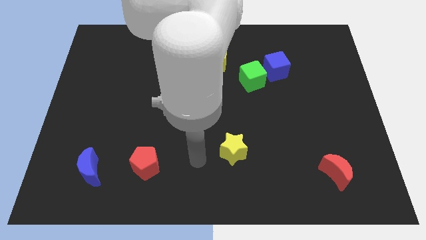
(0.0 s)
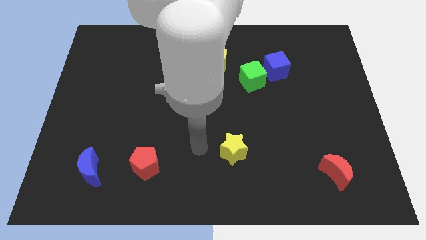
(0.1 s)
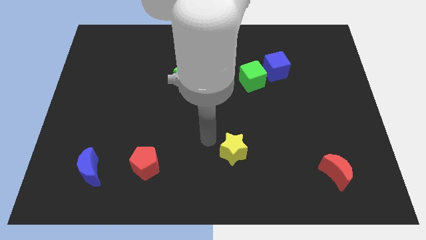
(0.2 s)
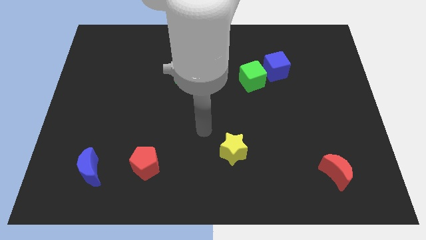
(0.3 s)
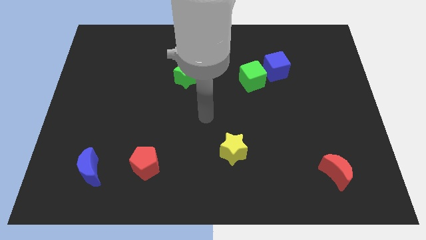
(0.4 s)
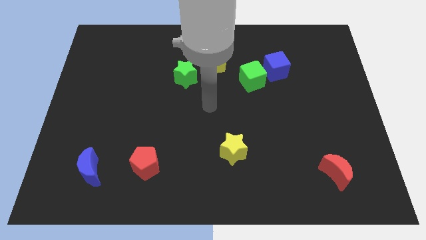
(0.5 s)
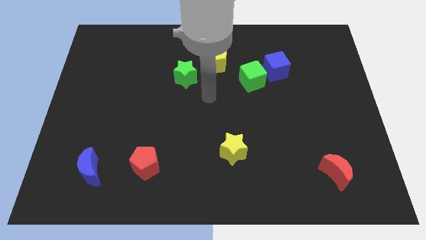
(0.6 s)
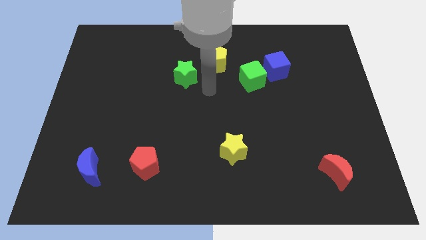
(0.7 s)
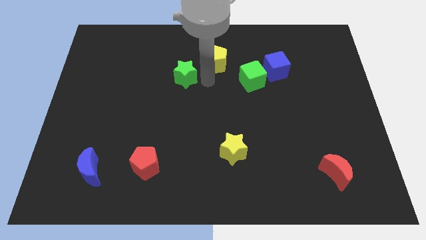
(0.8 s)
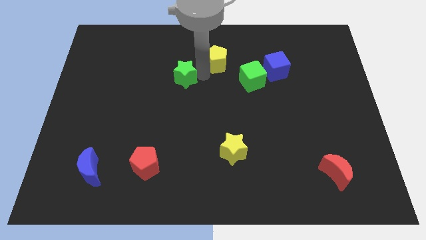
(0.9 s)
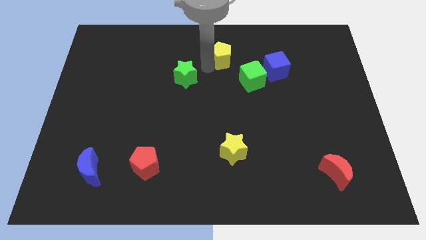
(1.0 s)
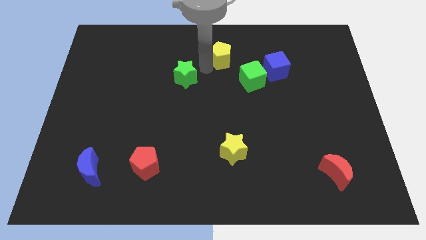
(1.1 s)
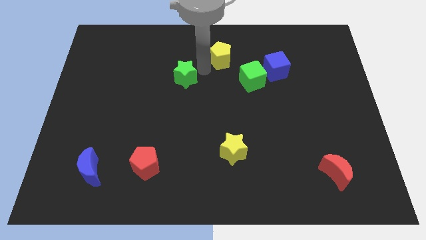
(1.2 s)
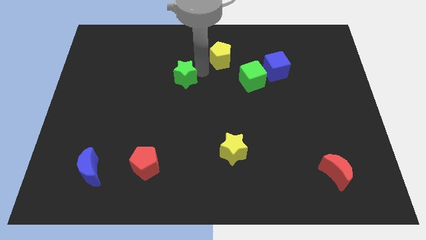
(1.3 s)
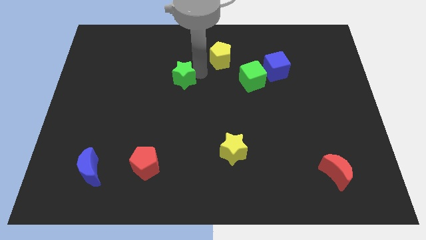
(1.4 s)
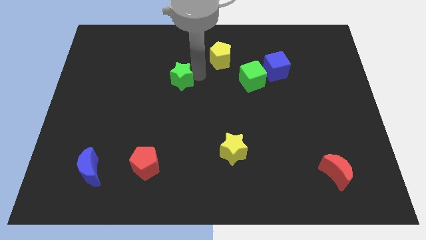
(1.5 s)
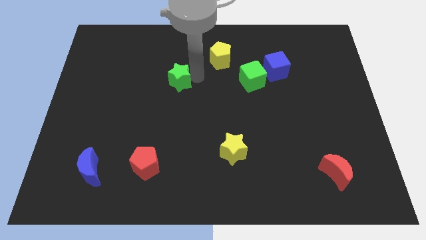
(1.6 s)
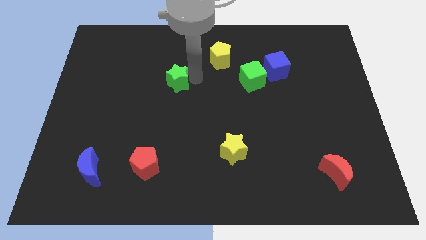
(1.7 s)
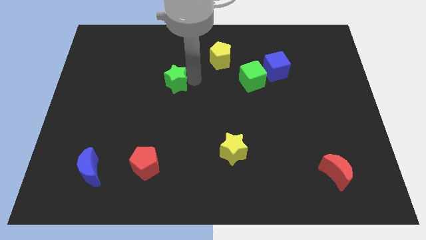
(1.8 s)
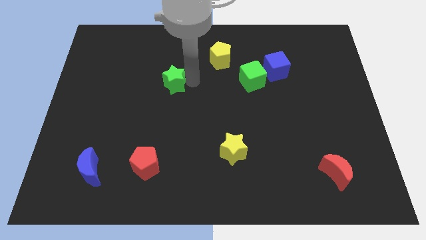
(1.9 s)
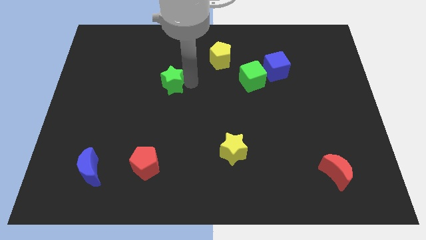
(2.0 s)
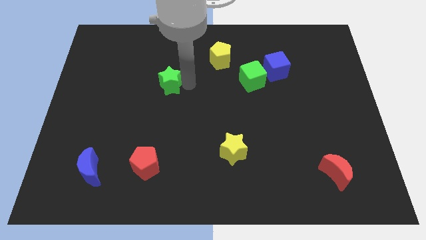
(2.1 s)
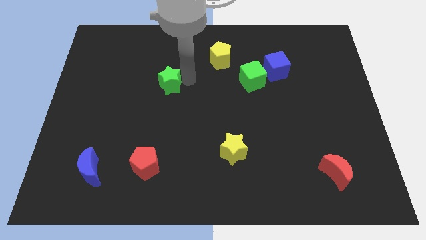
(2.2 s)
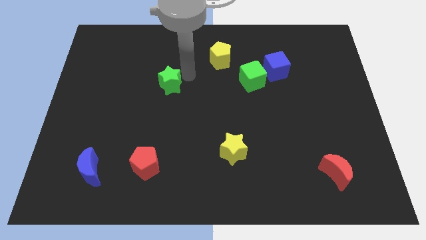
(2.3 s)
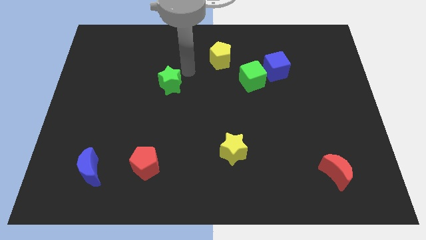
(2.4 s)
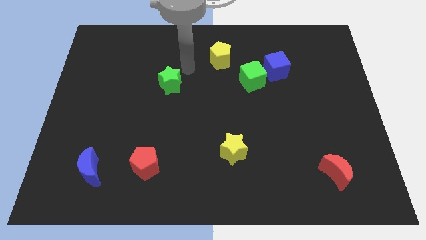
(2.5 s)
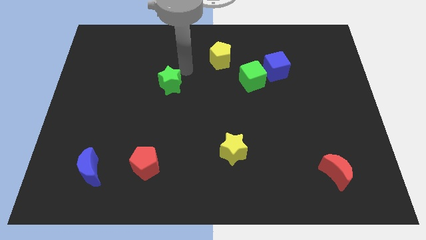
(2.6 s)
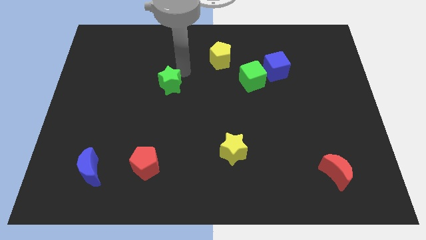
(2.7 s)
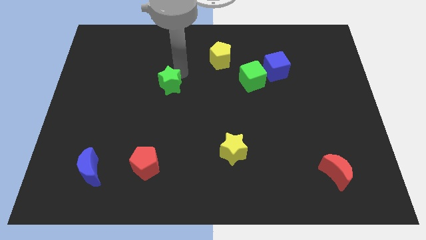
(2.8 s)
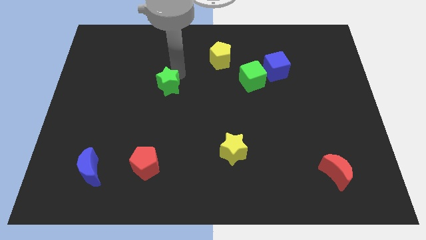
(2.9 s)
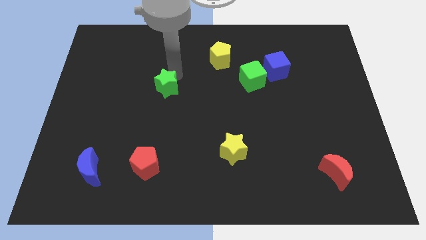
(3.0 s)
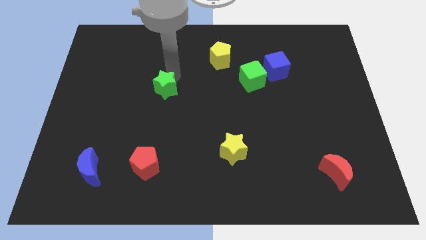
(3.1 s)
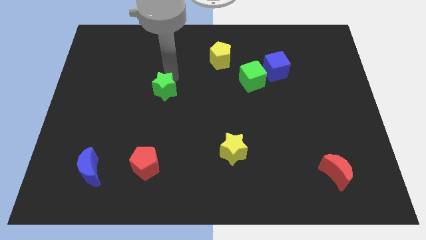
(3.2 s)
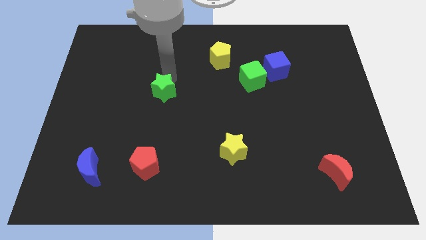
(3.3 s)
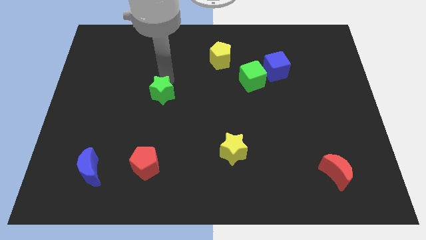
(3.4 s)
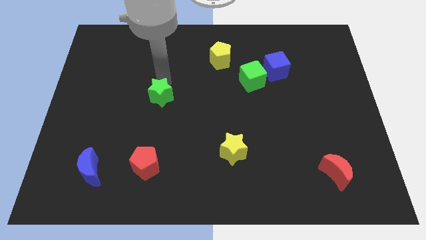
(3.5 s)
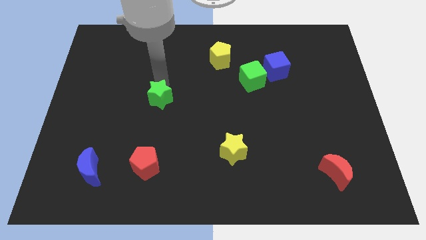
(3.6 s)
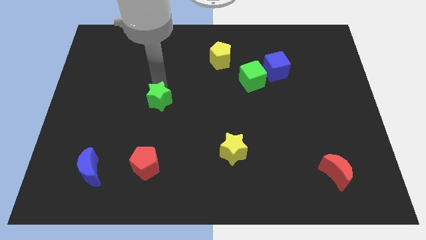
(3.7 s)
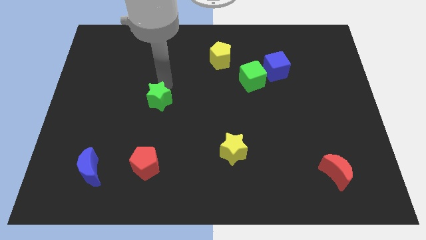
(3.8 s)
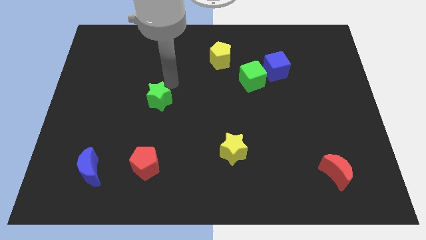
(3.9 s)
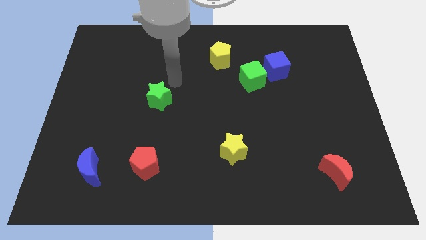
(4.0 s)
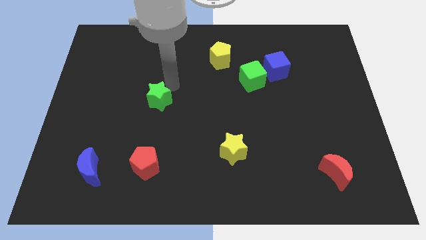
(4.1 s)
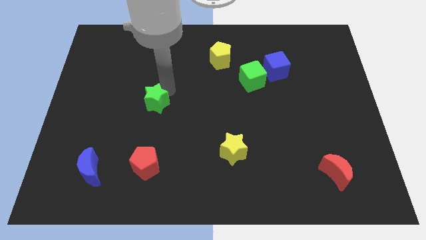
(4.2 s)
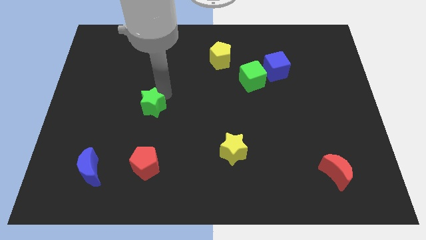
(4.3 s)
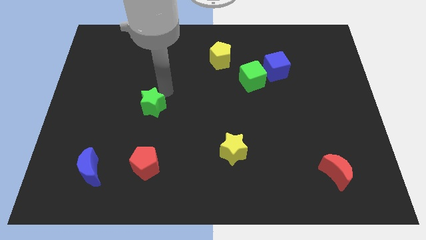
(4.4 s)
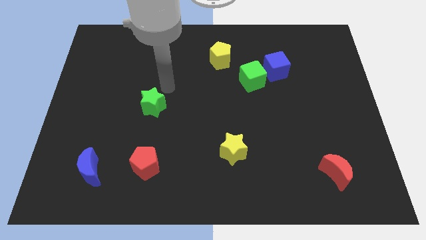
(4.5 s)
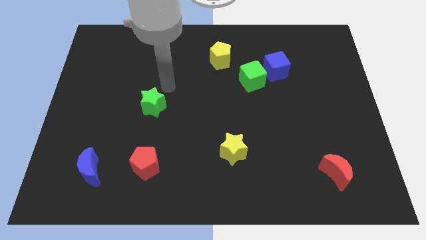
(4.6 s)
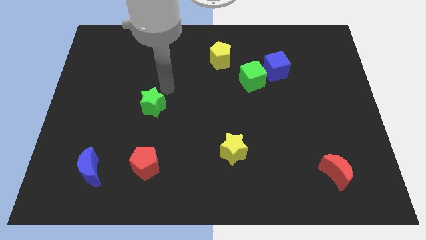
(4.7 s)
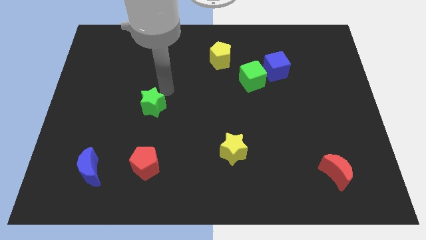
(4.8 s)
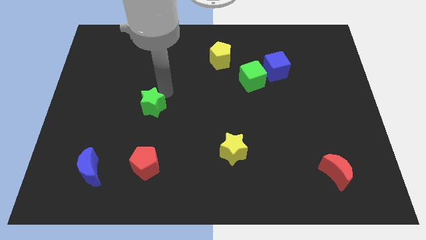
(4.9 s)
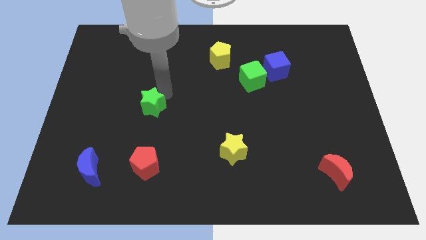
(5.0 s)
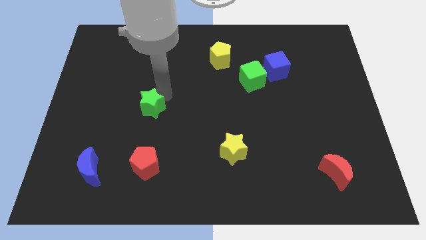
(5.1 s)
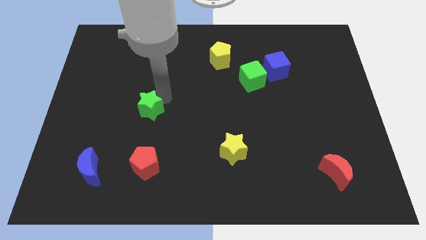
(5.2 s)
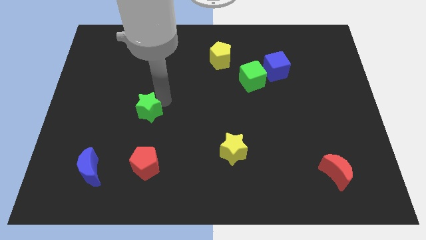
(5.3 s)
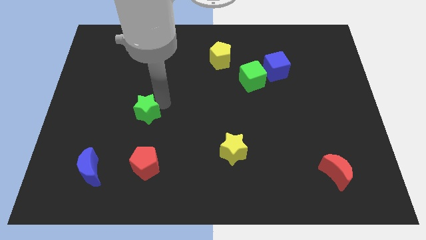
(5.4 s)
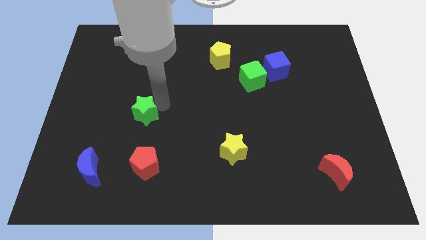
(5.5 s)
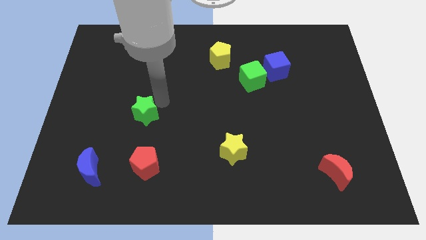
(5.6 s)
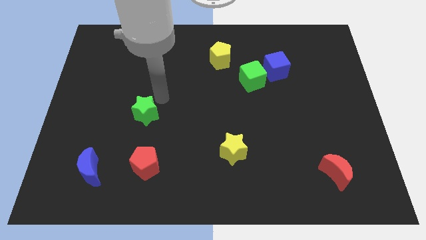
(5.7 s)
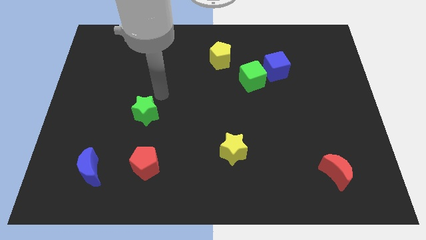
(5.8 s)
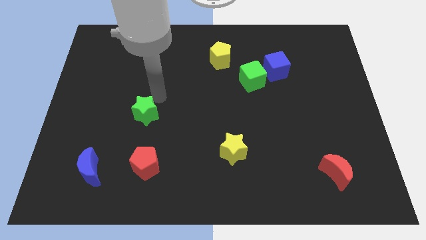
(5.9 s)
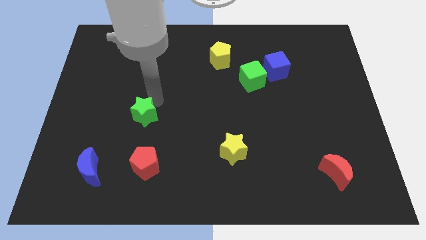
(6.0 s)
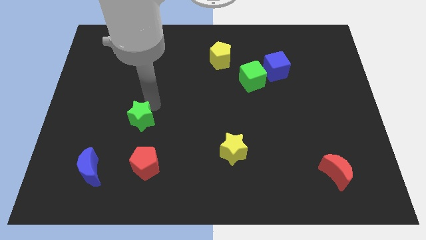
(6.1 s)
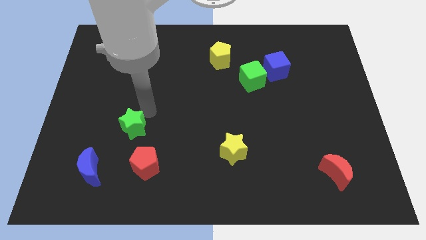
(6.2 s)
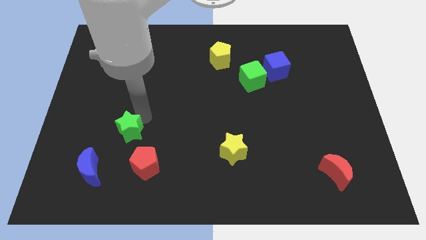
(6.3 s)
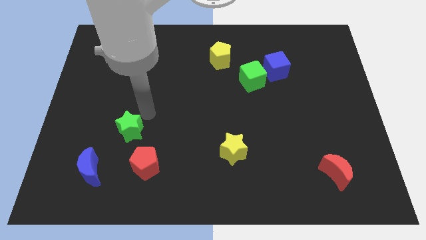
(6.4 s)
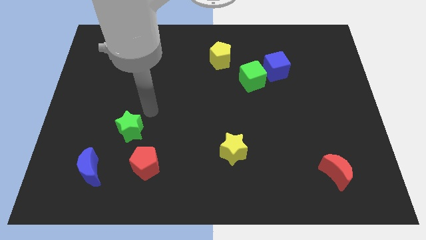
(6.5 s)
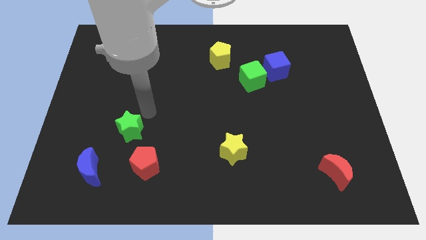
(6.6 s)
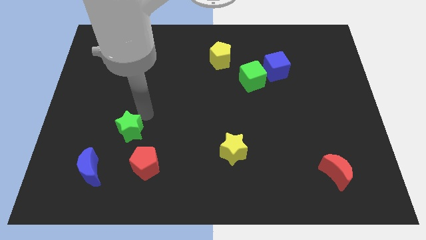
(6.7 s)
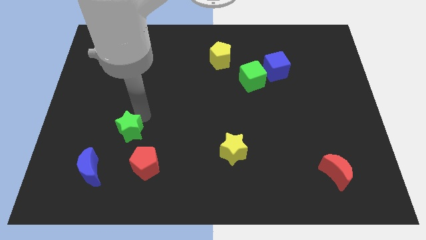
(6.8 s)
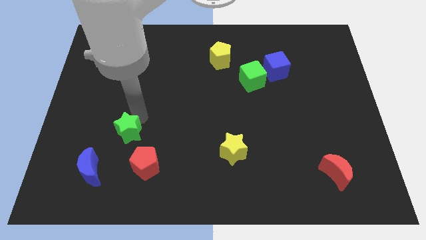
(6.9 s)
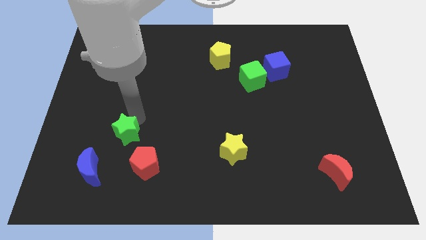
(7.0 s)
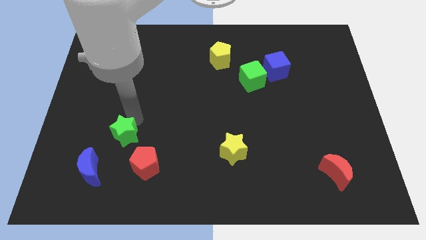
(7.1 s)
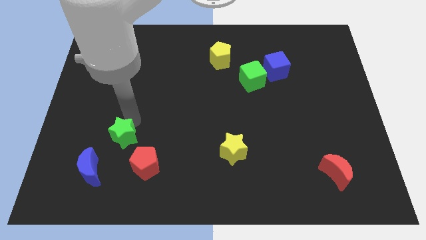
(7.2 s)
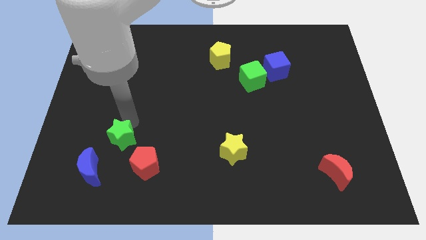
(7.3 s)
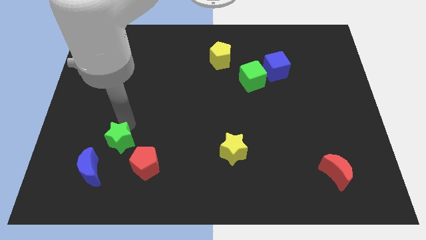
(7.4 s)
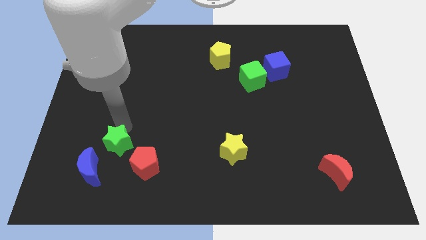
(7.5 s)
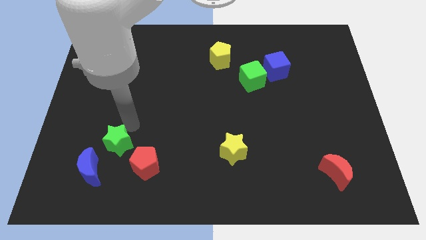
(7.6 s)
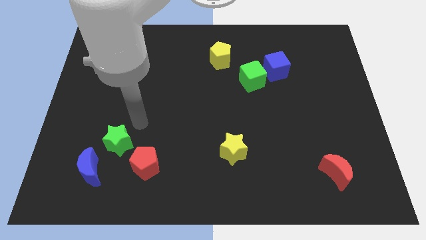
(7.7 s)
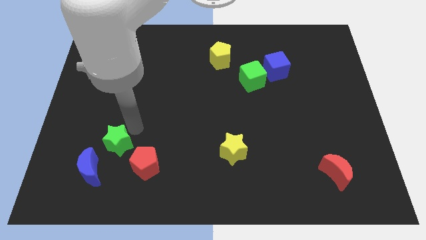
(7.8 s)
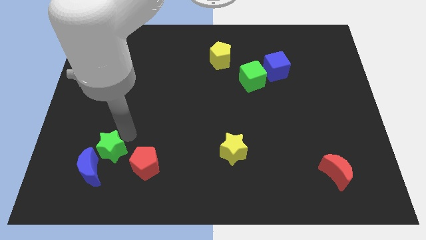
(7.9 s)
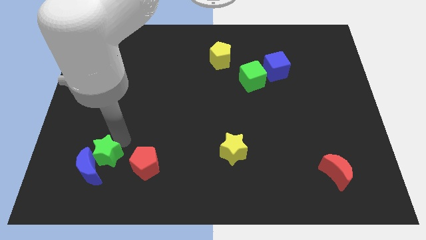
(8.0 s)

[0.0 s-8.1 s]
put the green star towards the blue moon
